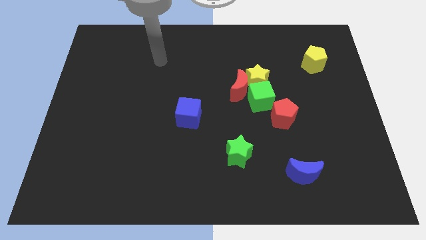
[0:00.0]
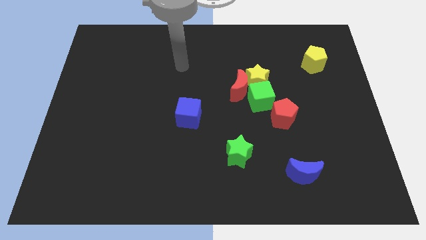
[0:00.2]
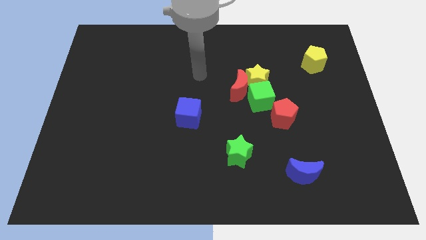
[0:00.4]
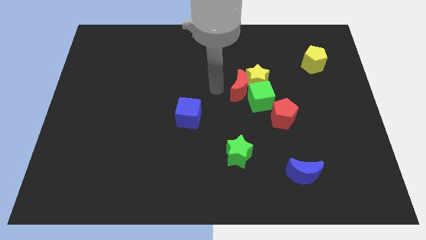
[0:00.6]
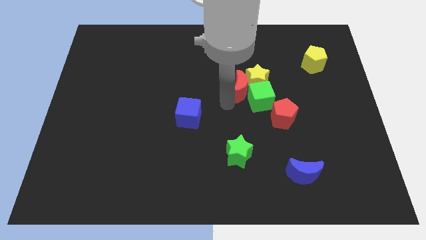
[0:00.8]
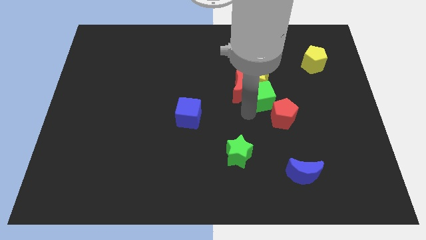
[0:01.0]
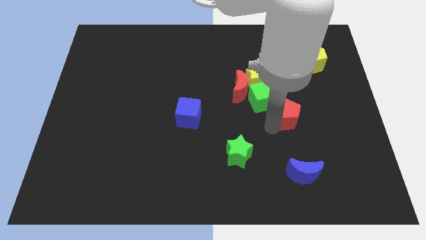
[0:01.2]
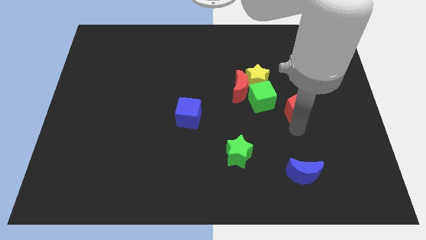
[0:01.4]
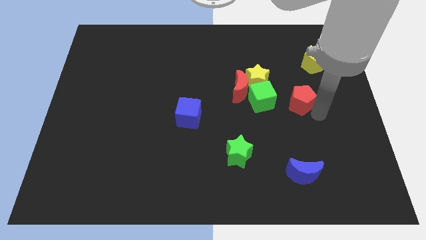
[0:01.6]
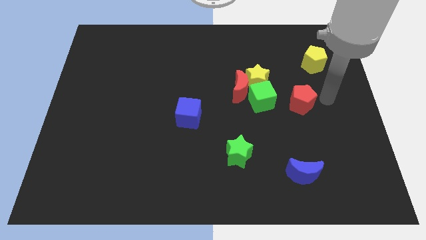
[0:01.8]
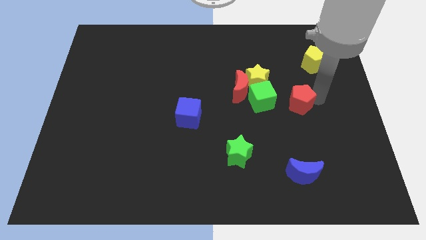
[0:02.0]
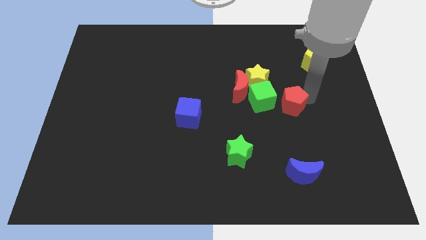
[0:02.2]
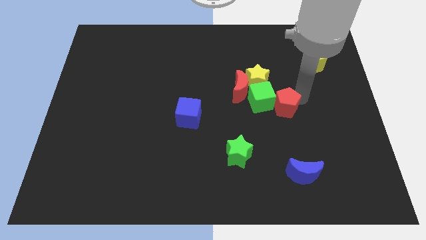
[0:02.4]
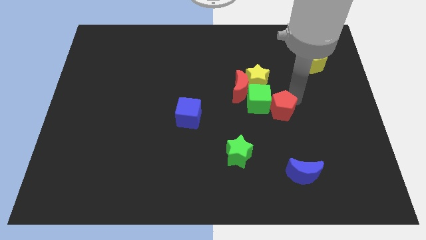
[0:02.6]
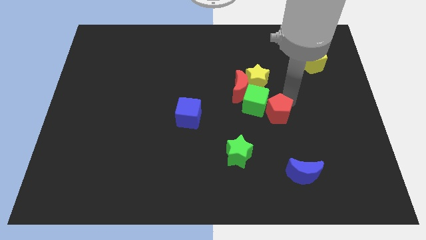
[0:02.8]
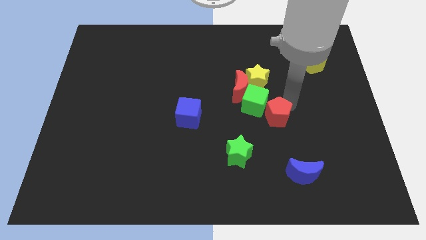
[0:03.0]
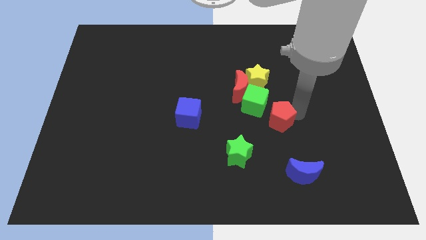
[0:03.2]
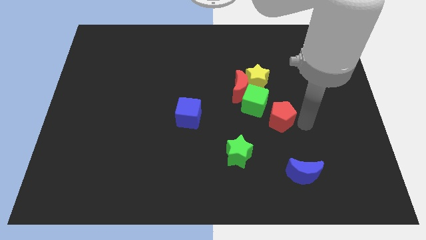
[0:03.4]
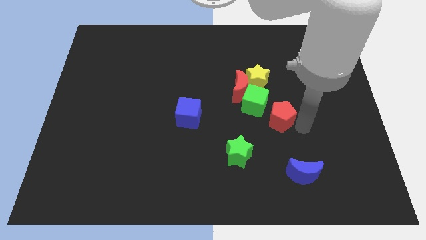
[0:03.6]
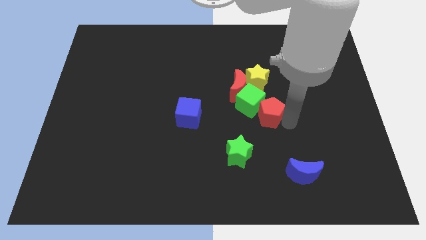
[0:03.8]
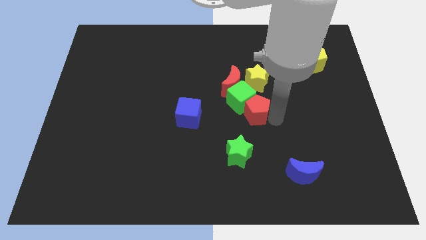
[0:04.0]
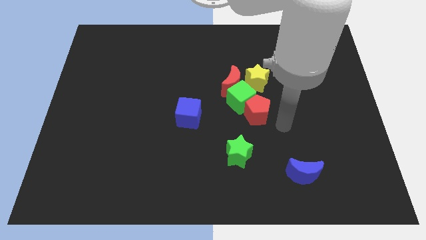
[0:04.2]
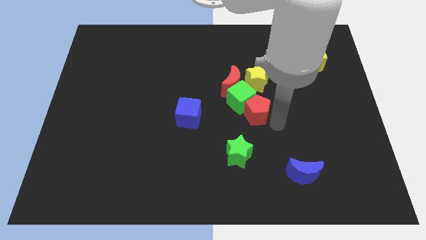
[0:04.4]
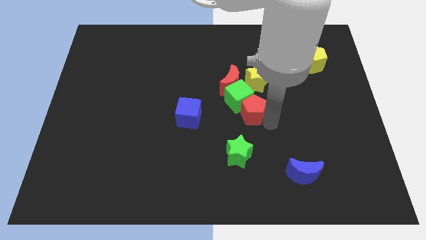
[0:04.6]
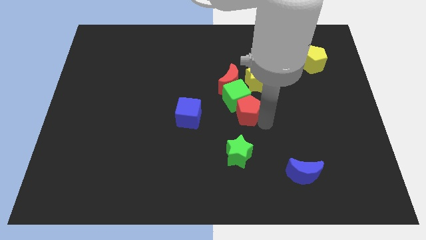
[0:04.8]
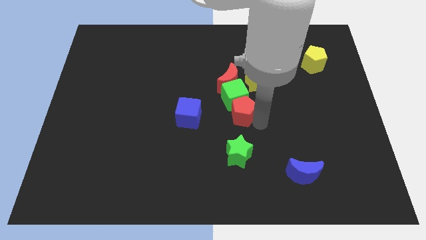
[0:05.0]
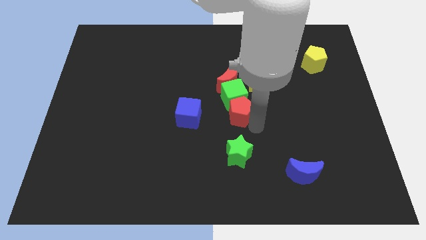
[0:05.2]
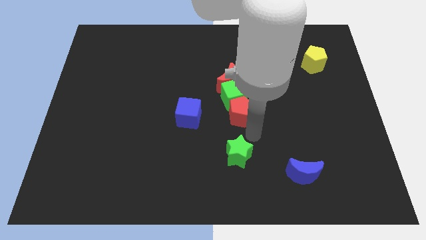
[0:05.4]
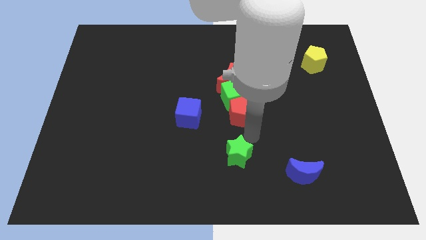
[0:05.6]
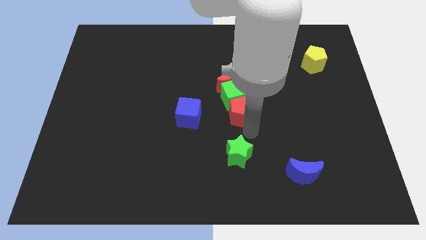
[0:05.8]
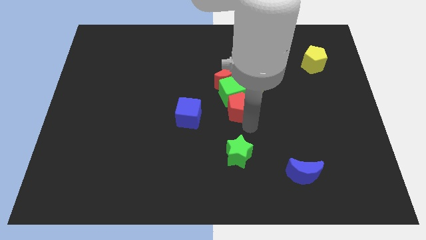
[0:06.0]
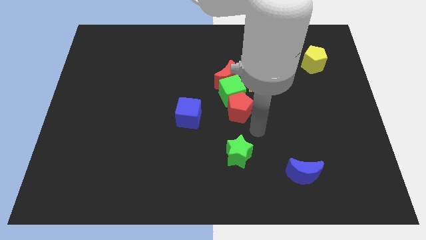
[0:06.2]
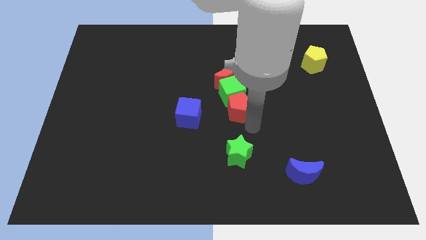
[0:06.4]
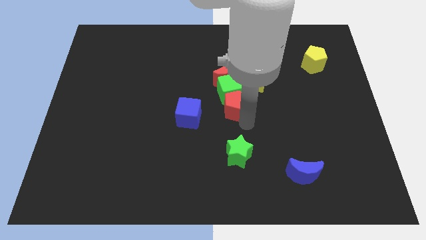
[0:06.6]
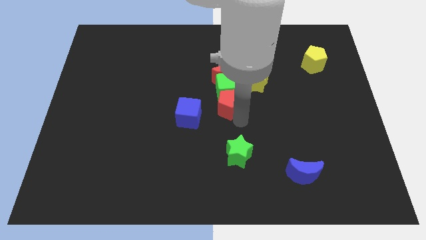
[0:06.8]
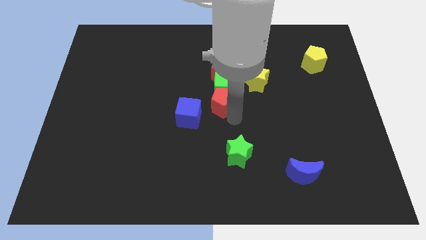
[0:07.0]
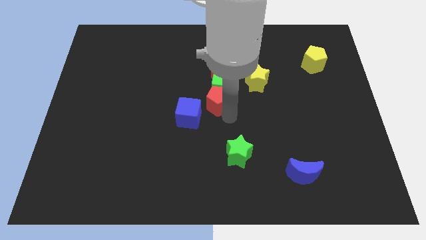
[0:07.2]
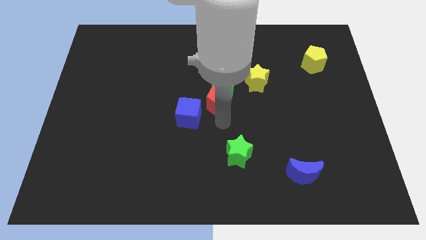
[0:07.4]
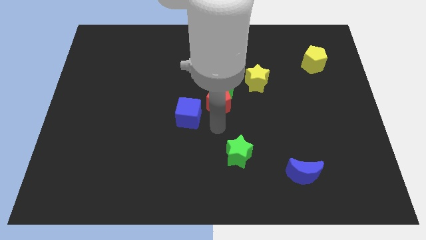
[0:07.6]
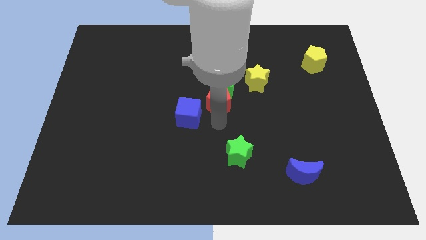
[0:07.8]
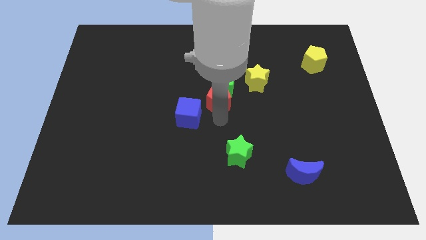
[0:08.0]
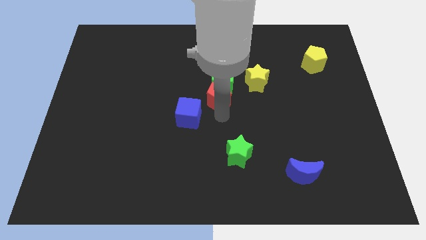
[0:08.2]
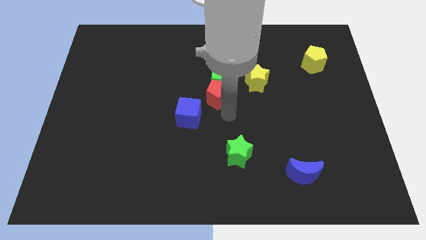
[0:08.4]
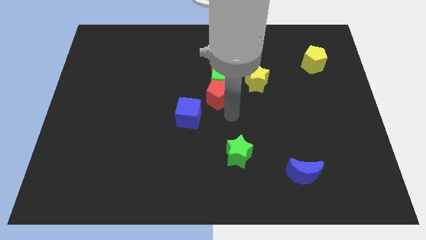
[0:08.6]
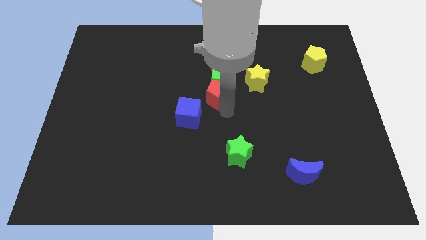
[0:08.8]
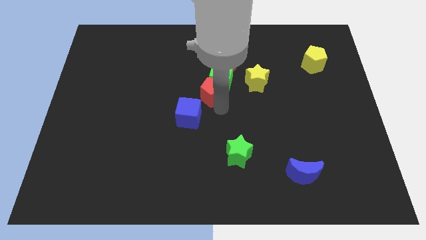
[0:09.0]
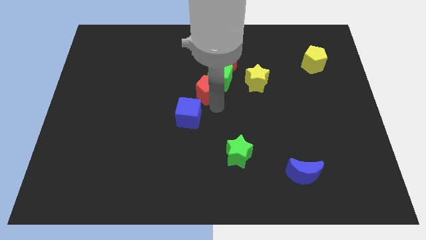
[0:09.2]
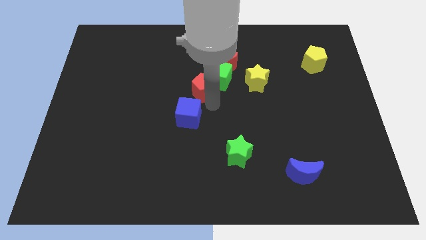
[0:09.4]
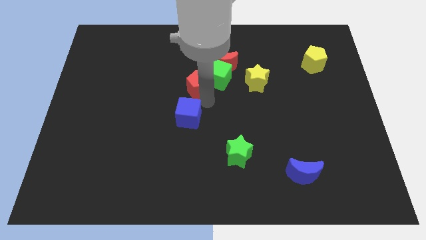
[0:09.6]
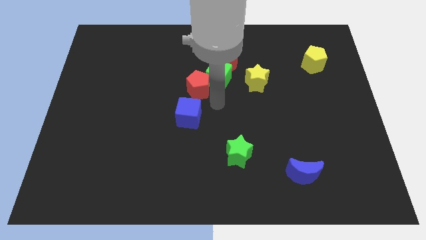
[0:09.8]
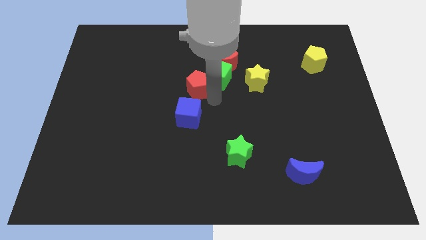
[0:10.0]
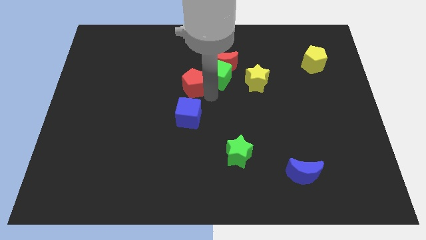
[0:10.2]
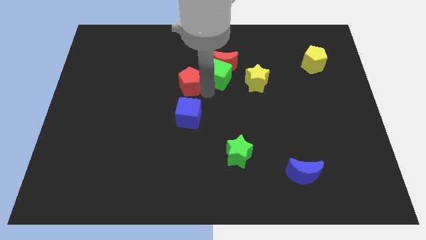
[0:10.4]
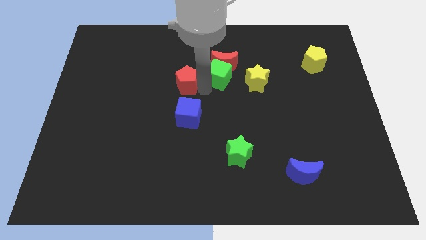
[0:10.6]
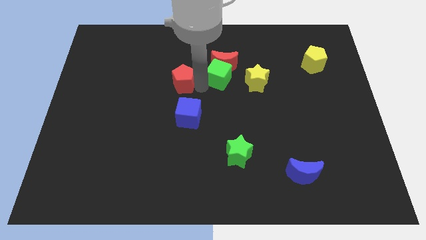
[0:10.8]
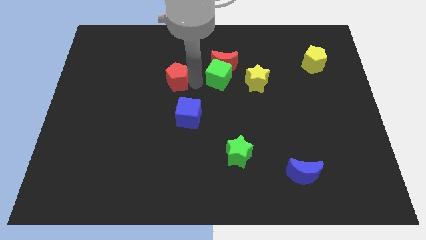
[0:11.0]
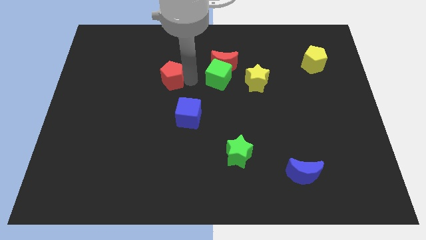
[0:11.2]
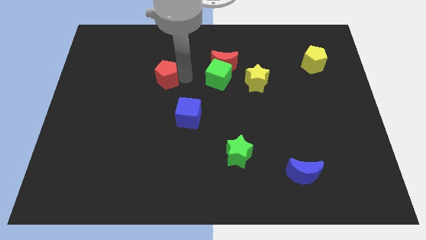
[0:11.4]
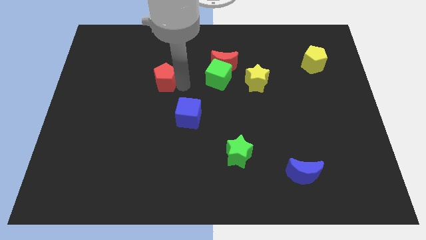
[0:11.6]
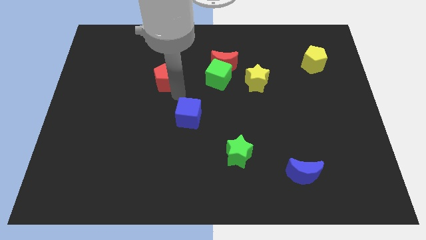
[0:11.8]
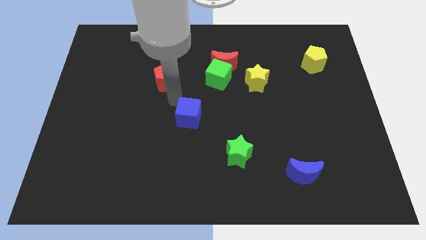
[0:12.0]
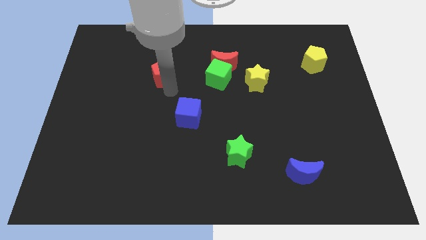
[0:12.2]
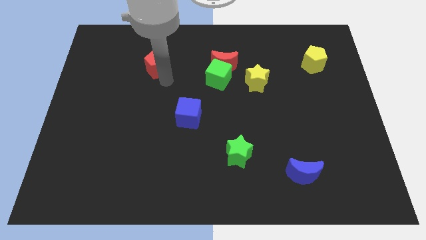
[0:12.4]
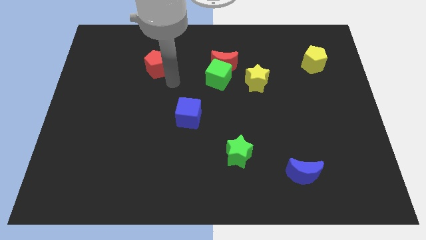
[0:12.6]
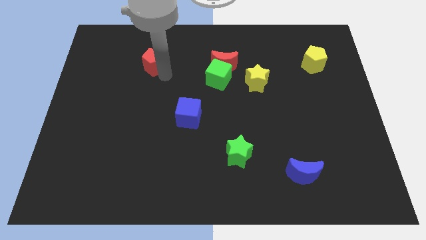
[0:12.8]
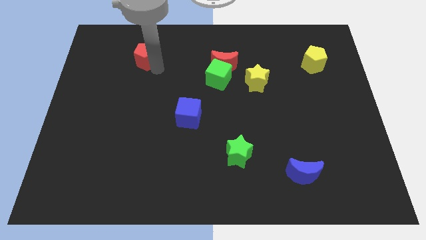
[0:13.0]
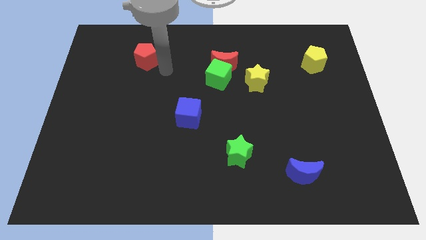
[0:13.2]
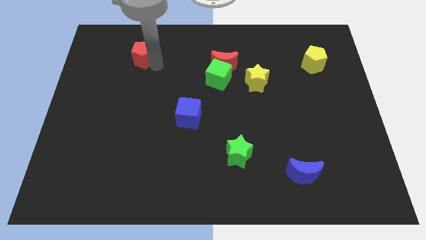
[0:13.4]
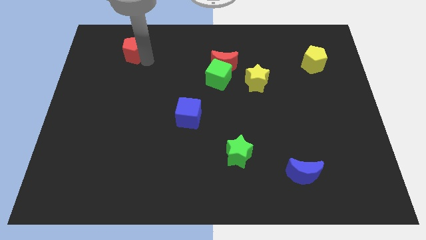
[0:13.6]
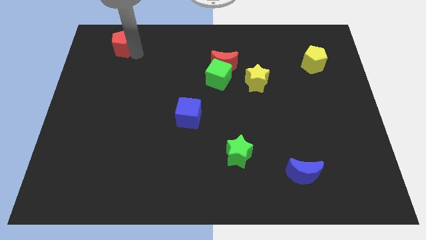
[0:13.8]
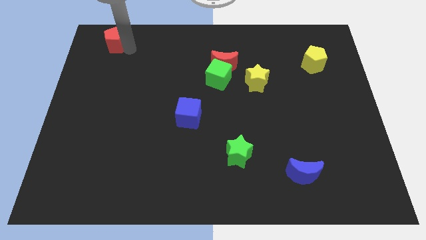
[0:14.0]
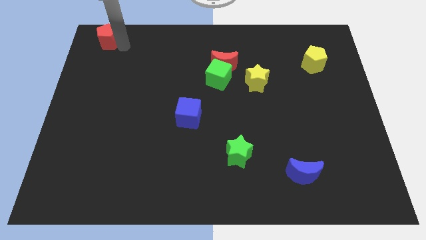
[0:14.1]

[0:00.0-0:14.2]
move the red pentagon to the top left
